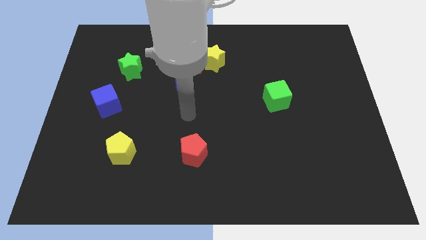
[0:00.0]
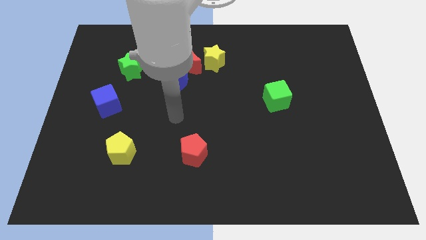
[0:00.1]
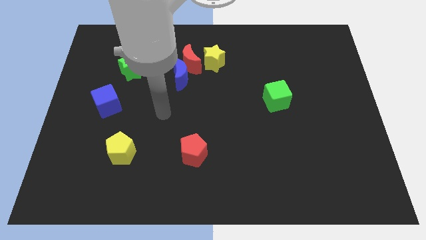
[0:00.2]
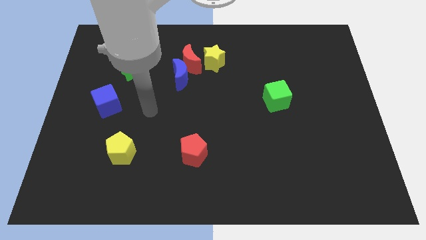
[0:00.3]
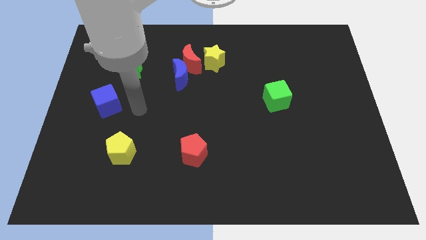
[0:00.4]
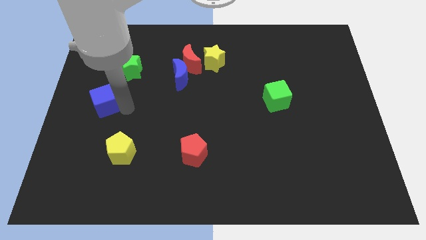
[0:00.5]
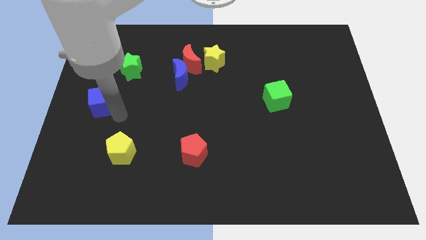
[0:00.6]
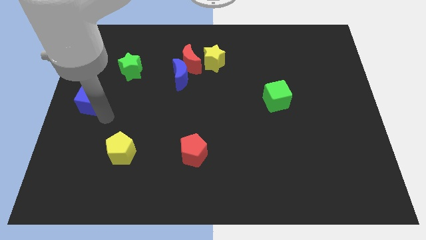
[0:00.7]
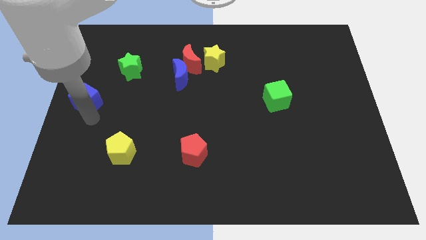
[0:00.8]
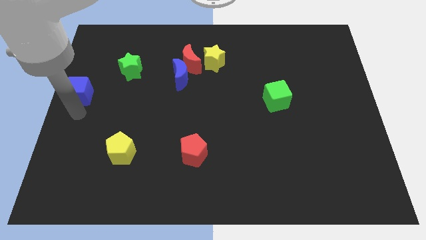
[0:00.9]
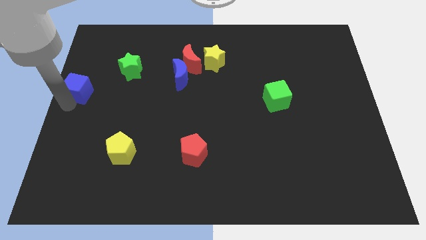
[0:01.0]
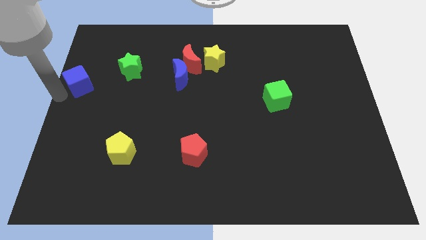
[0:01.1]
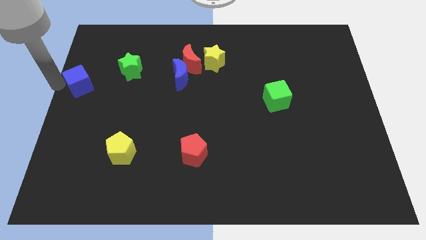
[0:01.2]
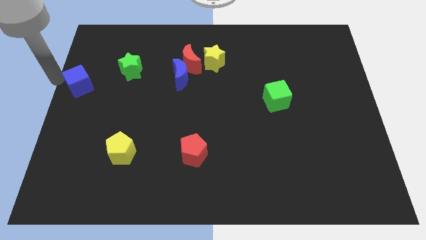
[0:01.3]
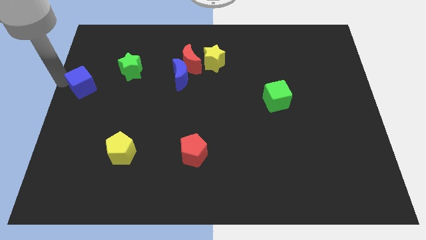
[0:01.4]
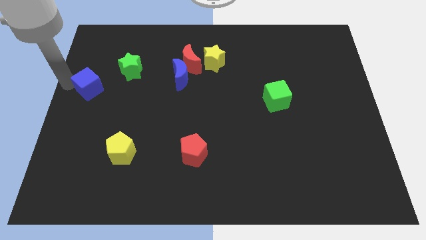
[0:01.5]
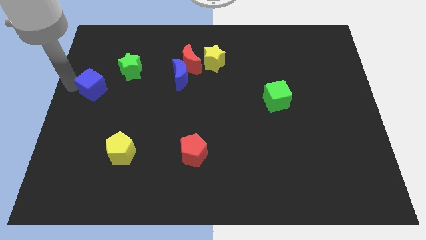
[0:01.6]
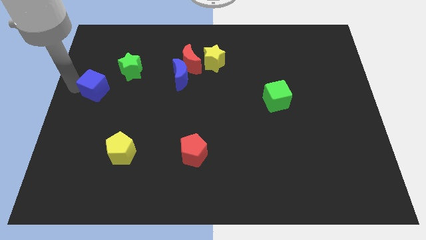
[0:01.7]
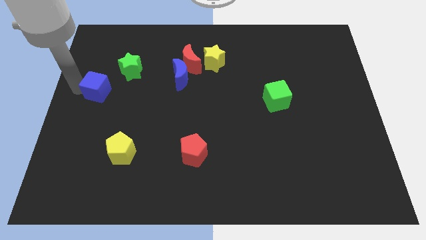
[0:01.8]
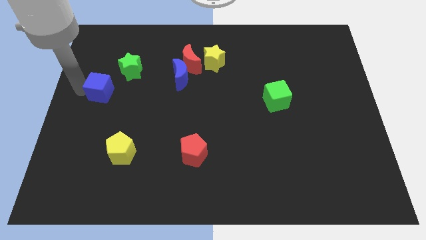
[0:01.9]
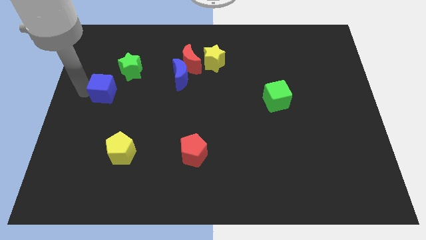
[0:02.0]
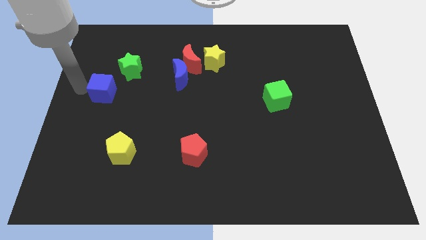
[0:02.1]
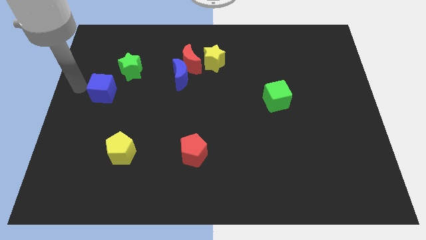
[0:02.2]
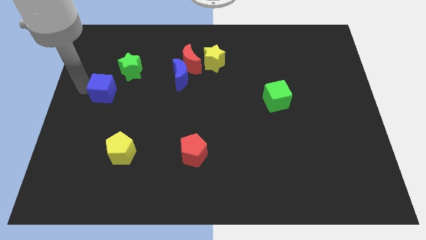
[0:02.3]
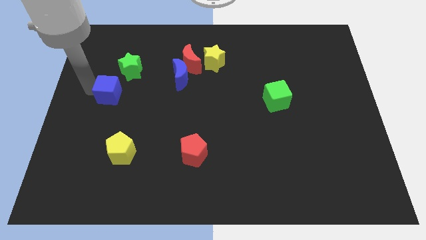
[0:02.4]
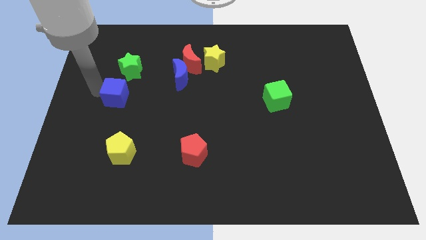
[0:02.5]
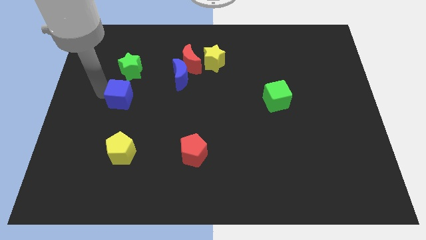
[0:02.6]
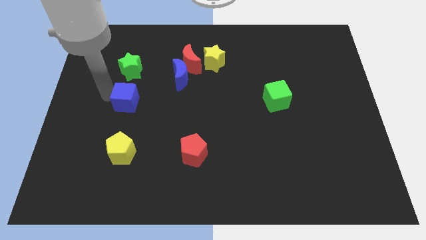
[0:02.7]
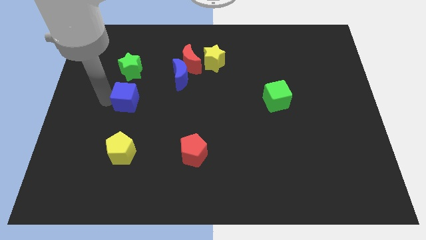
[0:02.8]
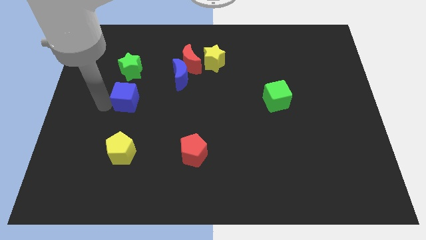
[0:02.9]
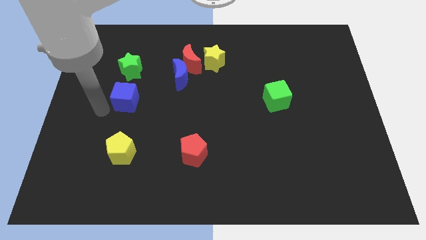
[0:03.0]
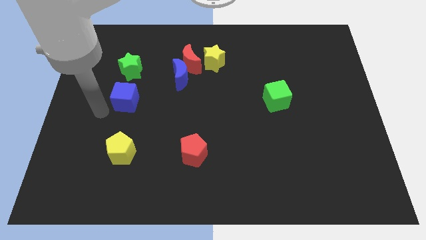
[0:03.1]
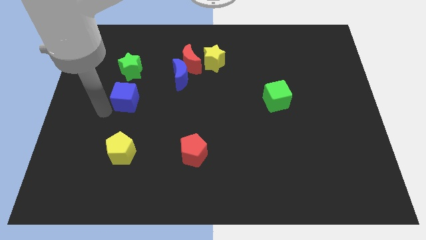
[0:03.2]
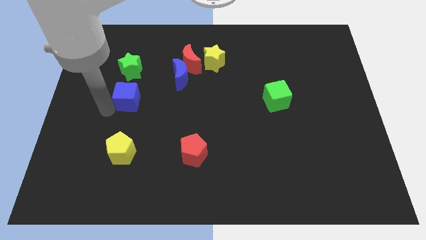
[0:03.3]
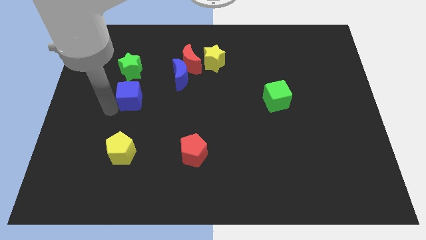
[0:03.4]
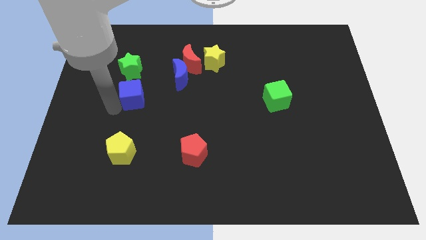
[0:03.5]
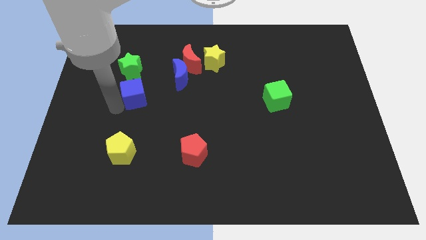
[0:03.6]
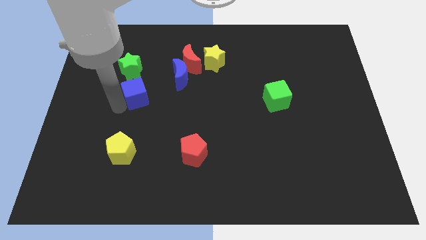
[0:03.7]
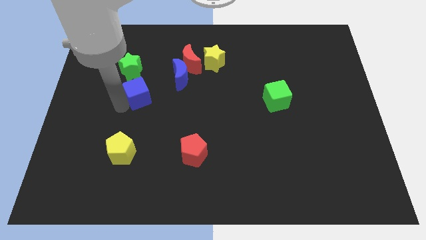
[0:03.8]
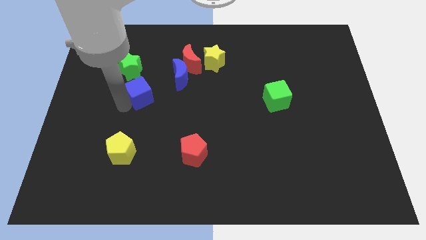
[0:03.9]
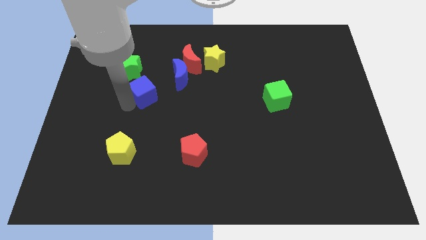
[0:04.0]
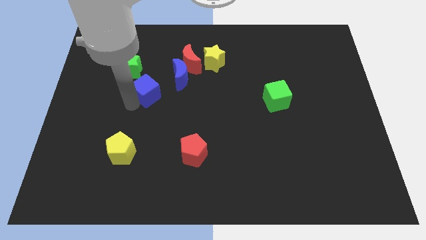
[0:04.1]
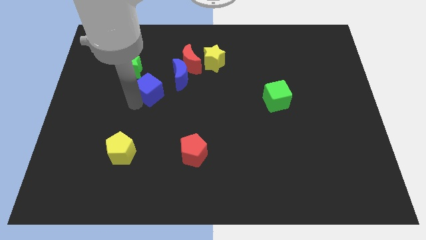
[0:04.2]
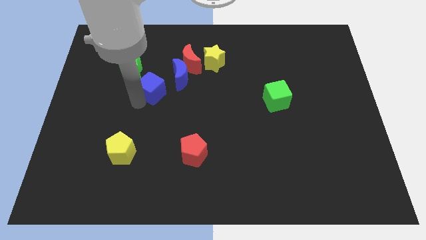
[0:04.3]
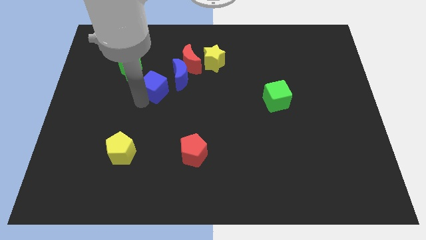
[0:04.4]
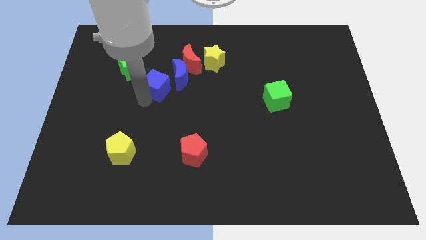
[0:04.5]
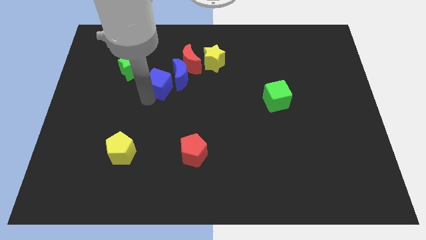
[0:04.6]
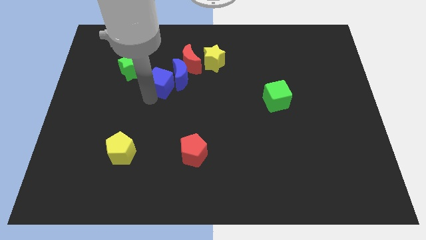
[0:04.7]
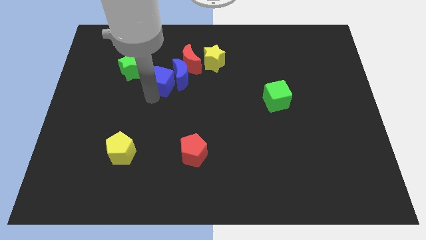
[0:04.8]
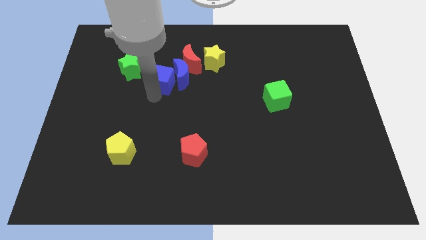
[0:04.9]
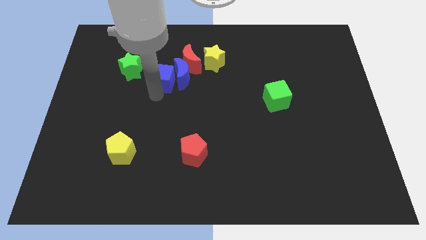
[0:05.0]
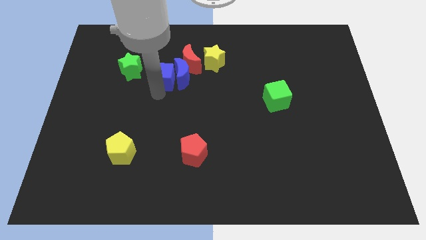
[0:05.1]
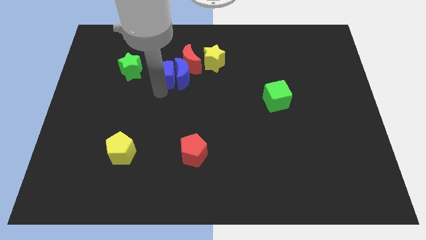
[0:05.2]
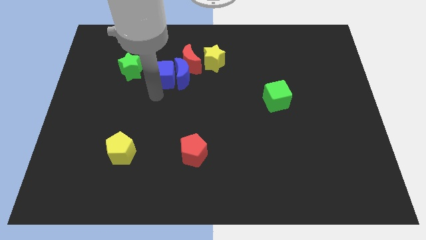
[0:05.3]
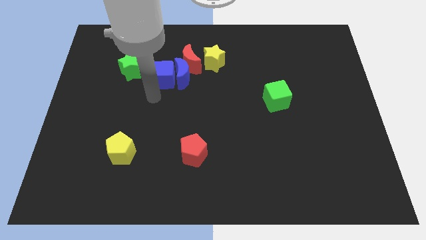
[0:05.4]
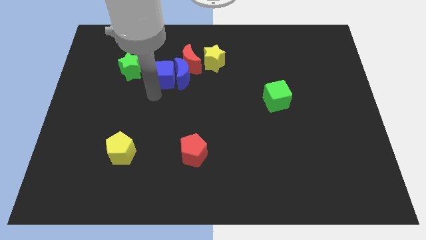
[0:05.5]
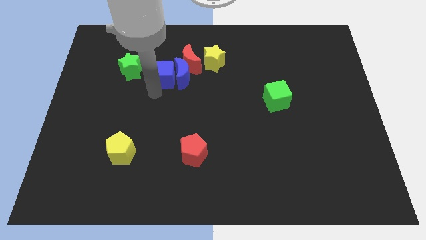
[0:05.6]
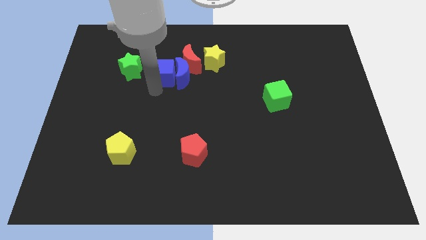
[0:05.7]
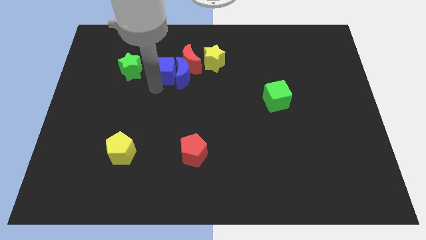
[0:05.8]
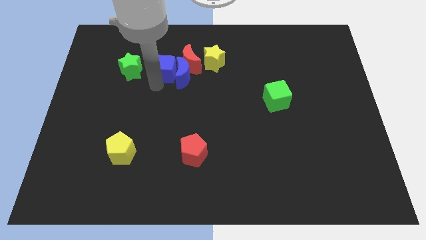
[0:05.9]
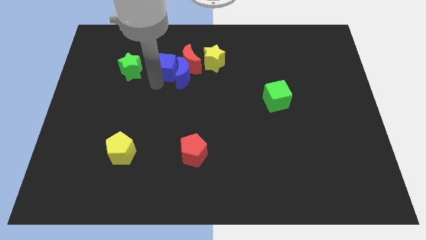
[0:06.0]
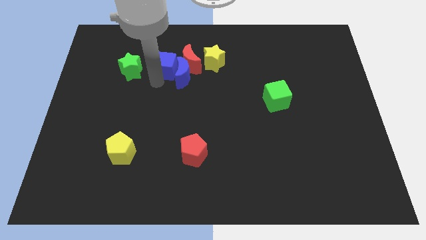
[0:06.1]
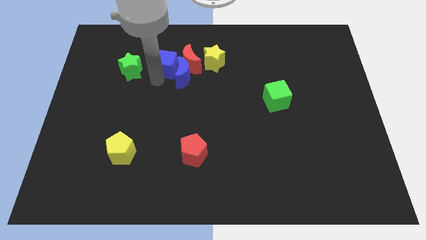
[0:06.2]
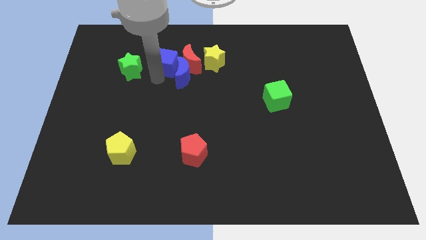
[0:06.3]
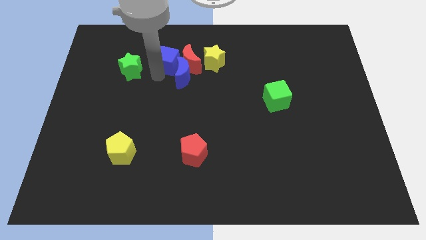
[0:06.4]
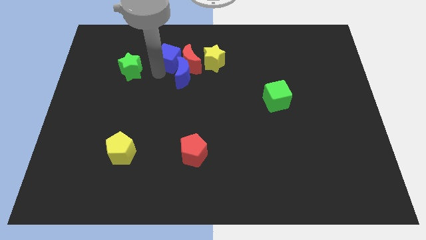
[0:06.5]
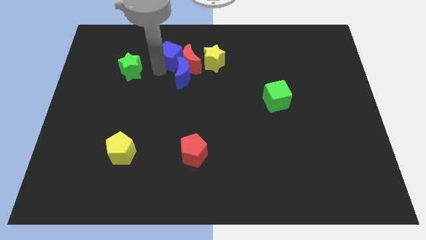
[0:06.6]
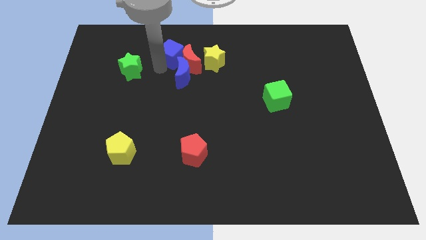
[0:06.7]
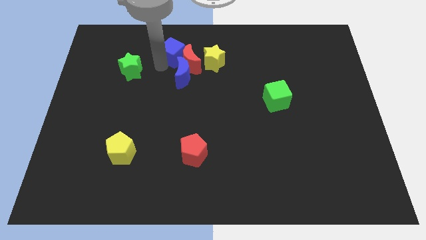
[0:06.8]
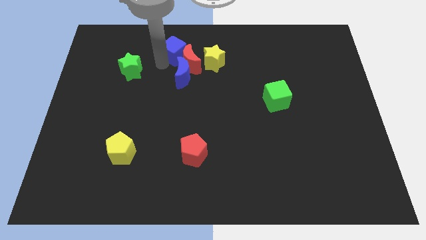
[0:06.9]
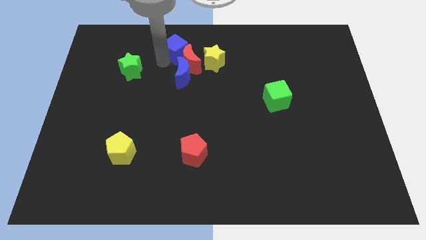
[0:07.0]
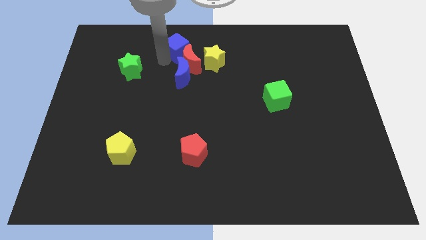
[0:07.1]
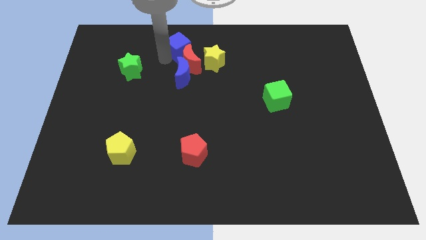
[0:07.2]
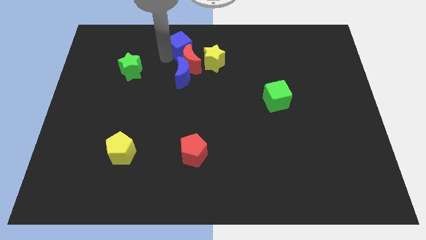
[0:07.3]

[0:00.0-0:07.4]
push the blue cube to the top side
